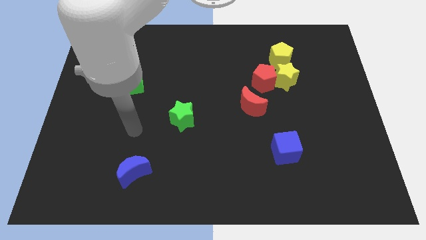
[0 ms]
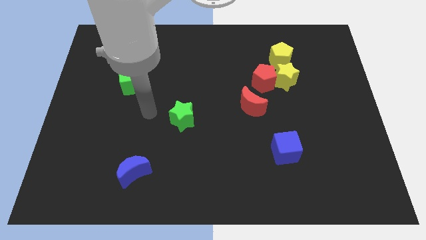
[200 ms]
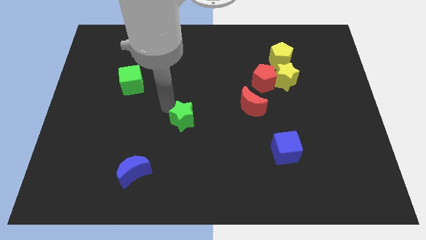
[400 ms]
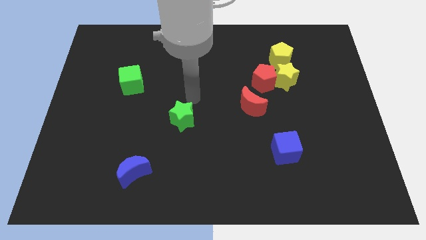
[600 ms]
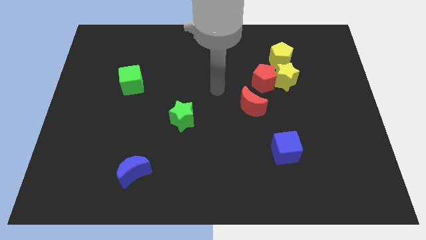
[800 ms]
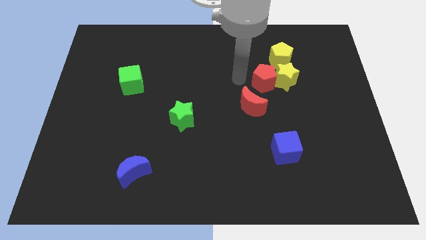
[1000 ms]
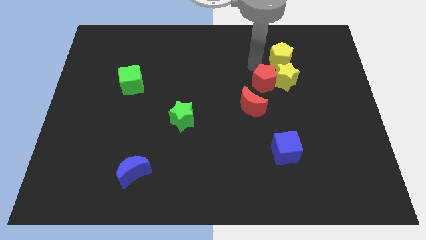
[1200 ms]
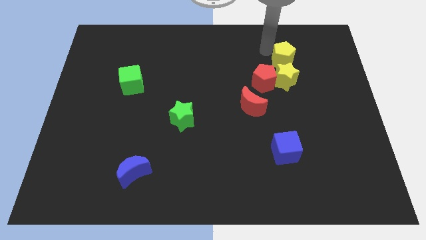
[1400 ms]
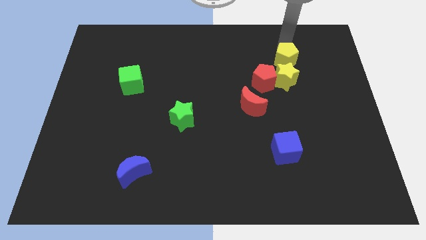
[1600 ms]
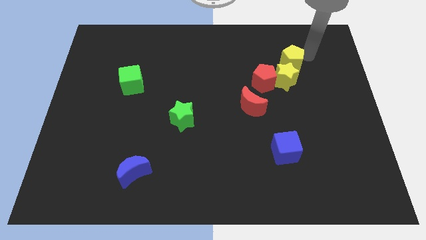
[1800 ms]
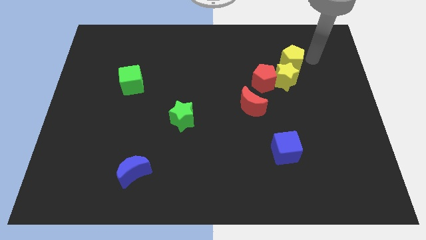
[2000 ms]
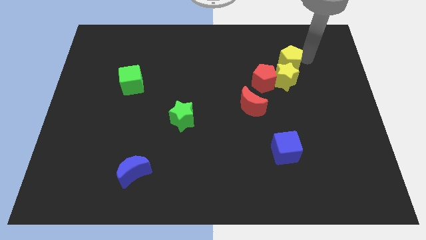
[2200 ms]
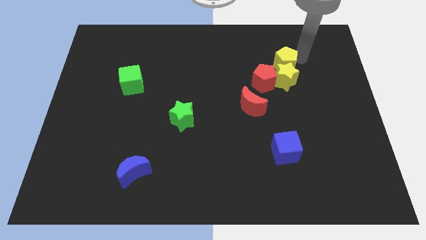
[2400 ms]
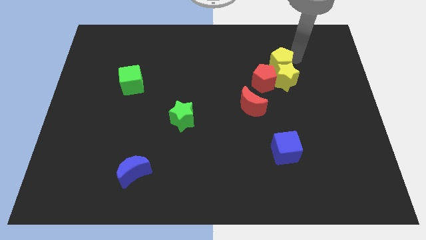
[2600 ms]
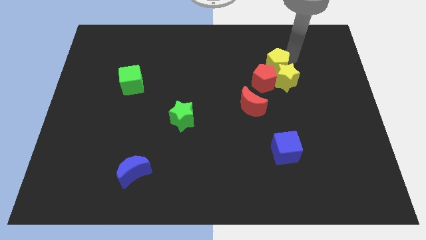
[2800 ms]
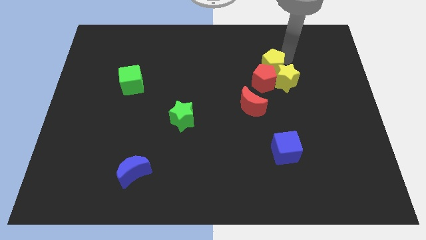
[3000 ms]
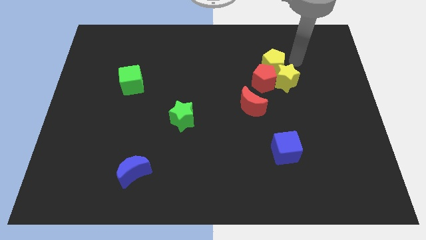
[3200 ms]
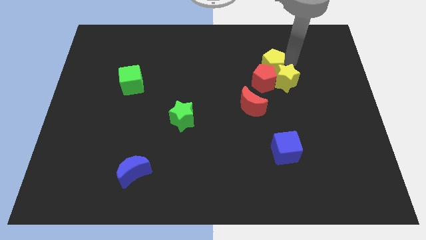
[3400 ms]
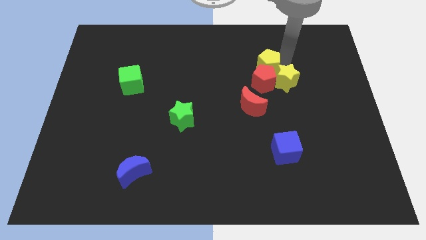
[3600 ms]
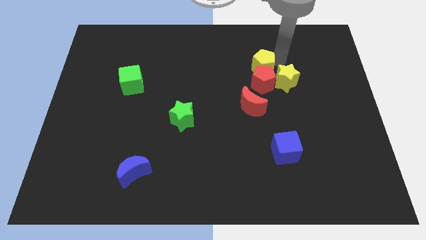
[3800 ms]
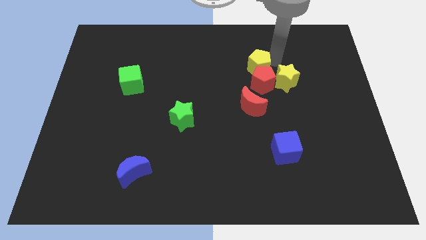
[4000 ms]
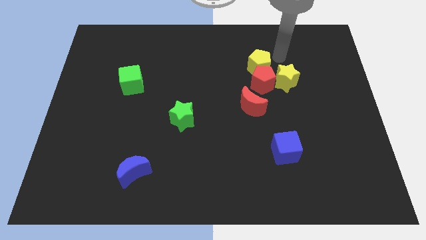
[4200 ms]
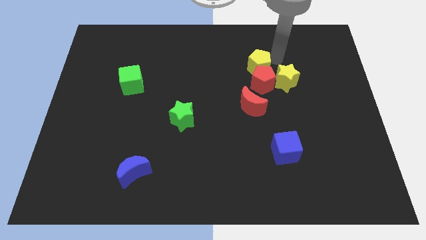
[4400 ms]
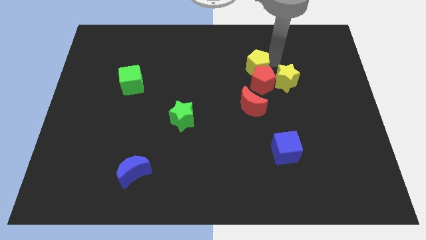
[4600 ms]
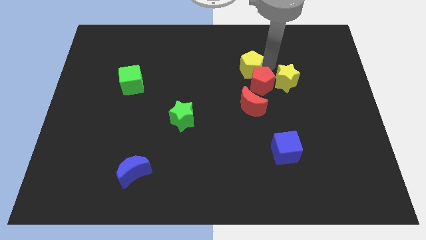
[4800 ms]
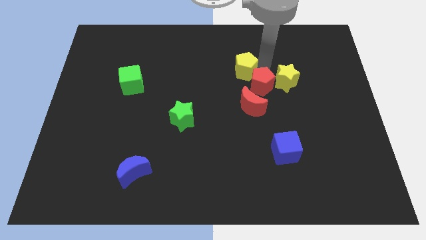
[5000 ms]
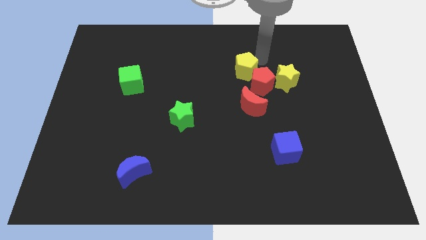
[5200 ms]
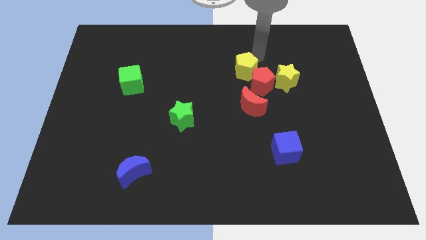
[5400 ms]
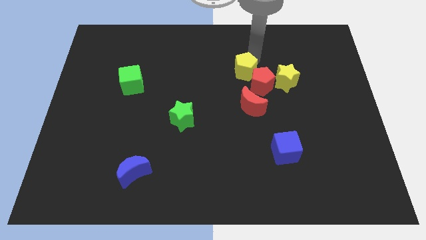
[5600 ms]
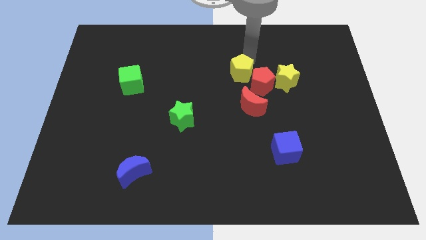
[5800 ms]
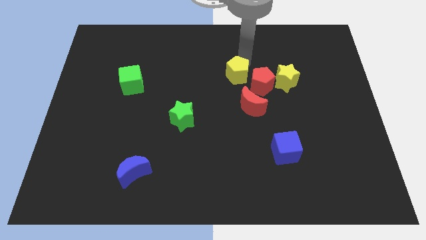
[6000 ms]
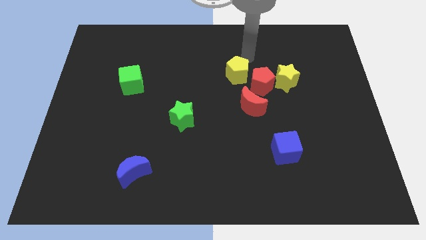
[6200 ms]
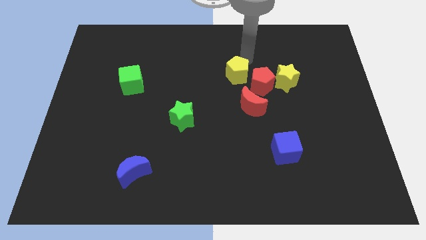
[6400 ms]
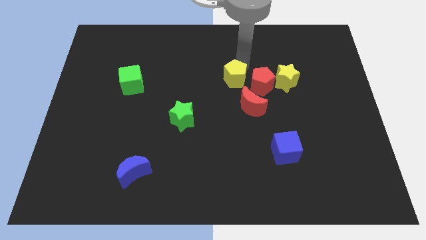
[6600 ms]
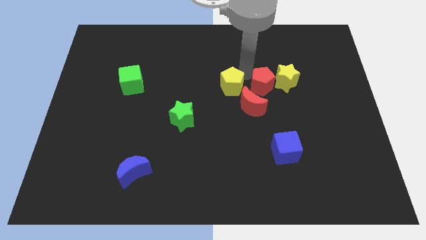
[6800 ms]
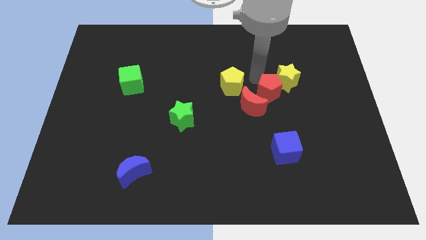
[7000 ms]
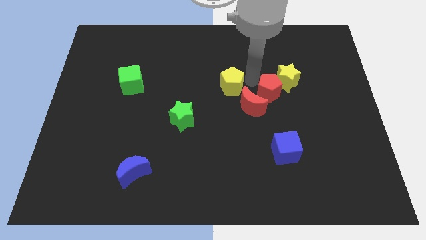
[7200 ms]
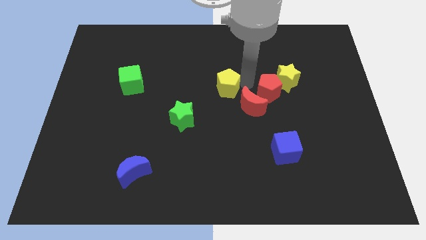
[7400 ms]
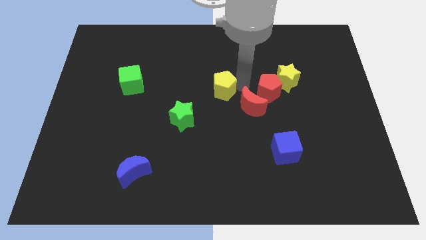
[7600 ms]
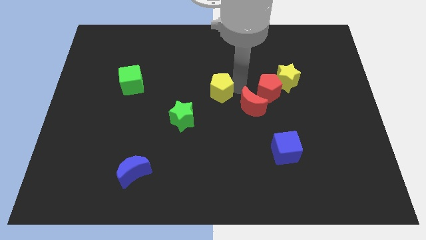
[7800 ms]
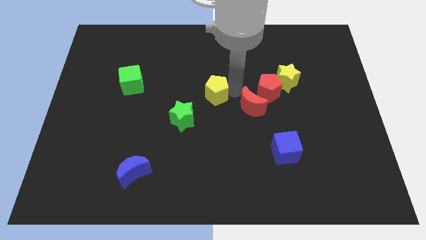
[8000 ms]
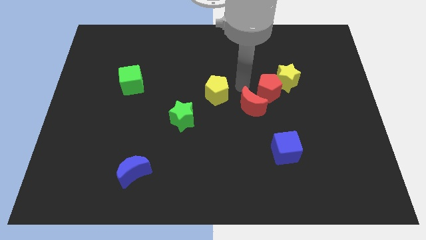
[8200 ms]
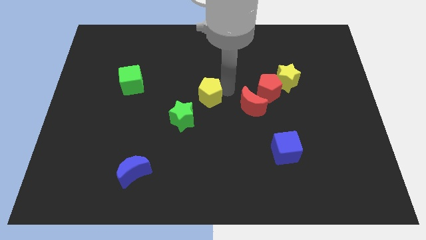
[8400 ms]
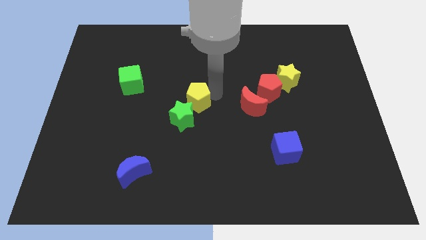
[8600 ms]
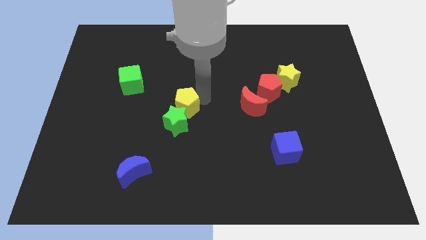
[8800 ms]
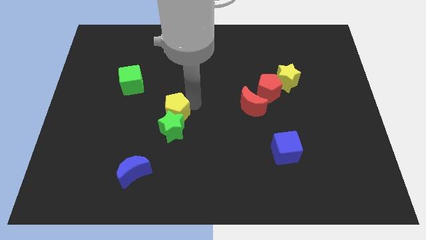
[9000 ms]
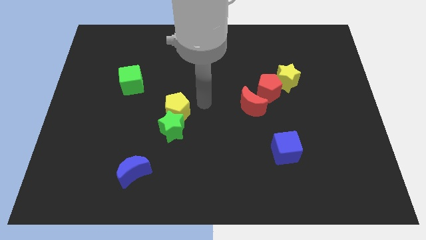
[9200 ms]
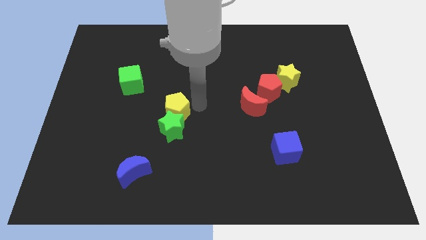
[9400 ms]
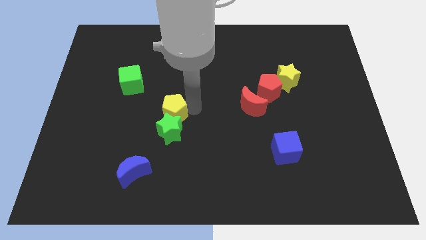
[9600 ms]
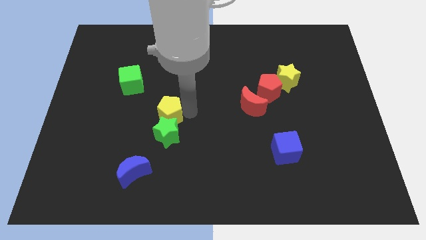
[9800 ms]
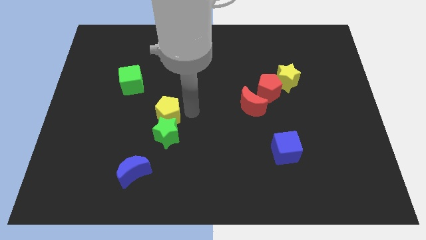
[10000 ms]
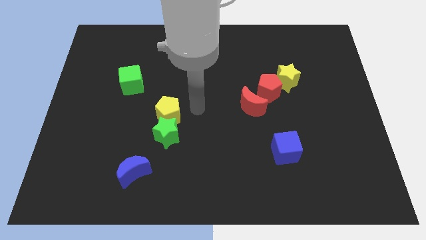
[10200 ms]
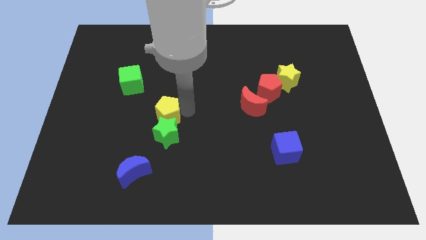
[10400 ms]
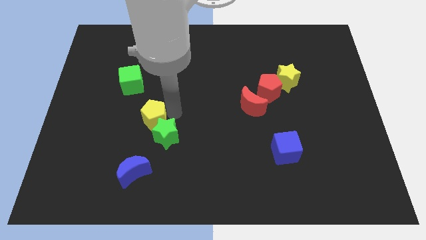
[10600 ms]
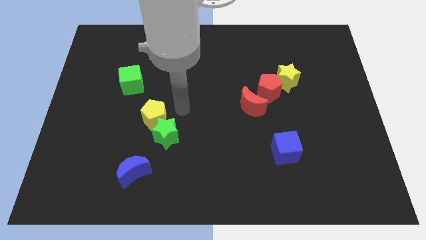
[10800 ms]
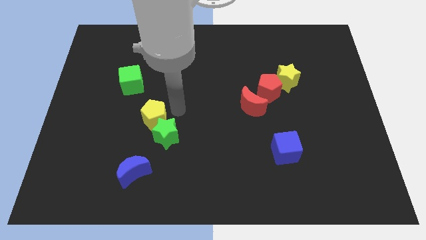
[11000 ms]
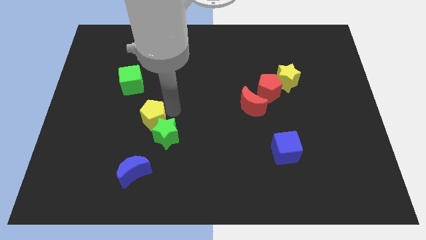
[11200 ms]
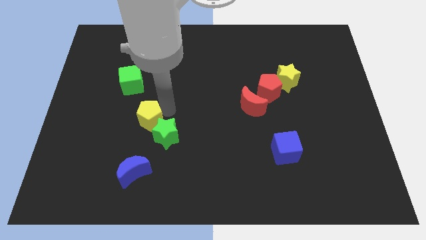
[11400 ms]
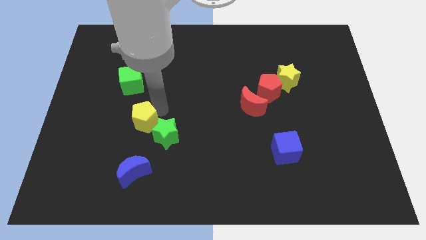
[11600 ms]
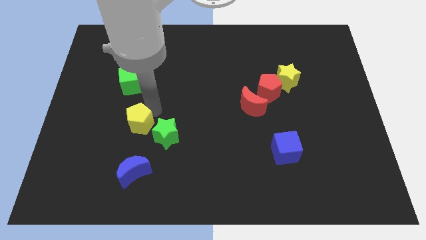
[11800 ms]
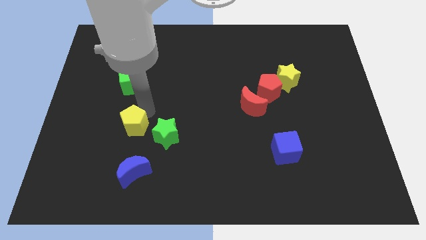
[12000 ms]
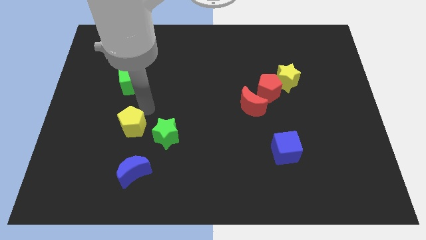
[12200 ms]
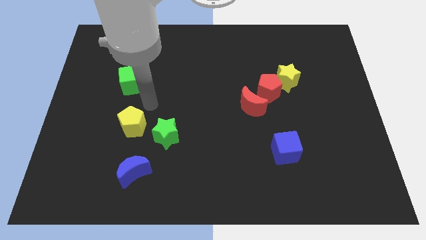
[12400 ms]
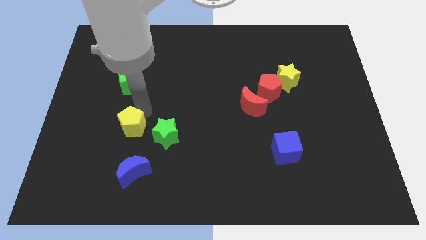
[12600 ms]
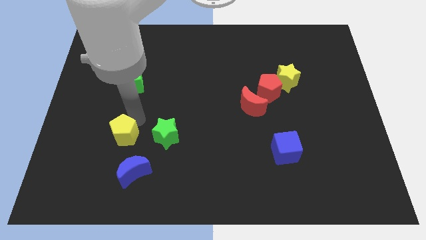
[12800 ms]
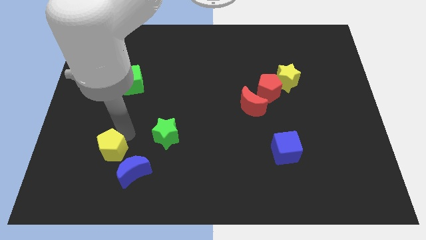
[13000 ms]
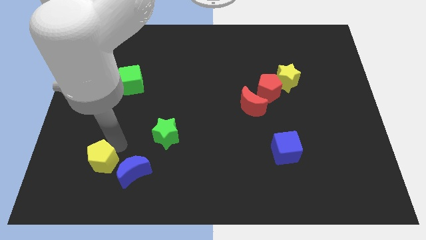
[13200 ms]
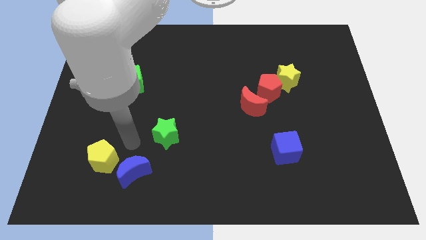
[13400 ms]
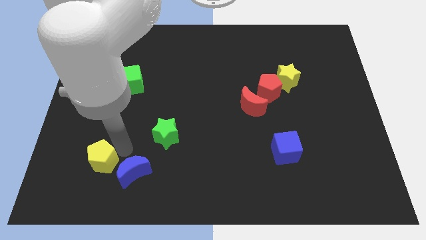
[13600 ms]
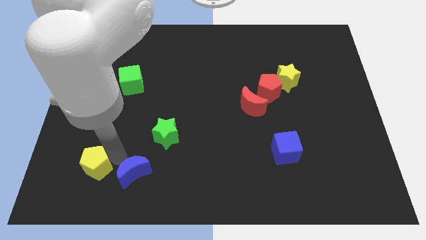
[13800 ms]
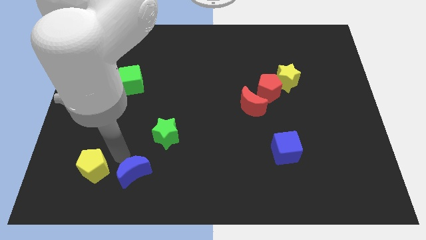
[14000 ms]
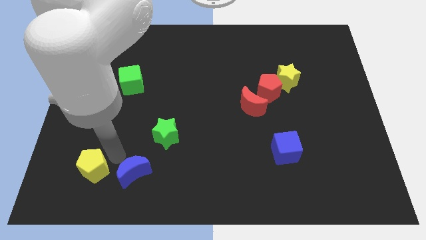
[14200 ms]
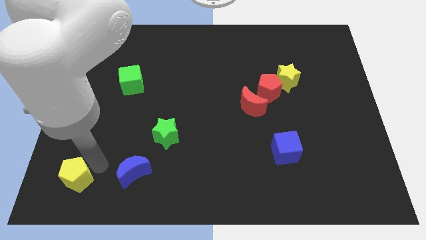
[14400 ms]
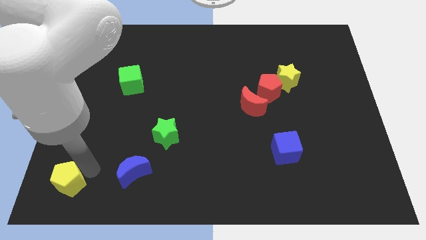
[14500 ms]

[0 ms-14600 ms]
put the yellow pentagon to the bottom left
